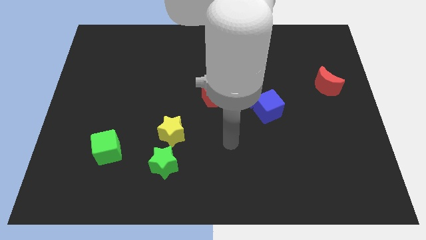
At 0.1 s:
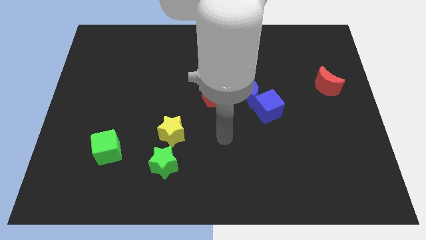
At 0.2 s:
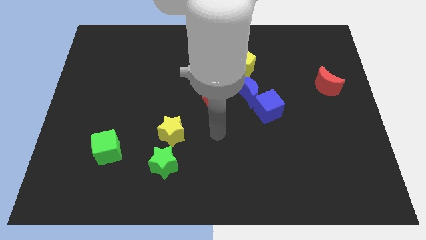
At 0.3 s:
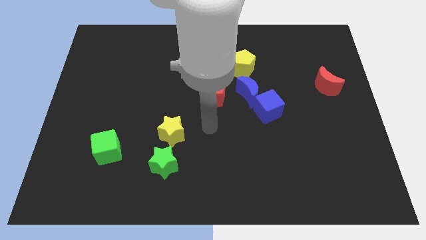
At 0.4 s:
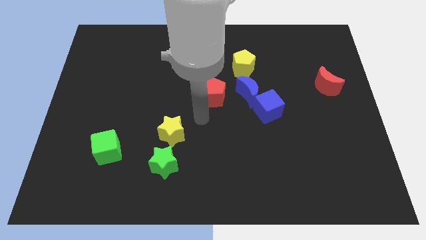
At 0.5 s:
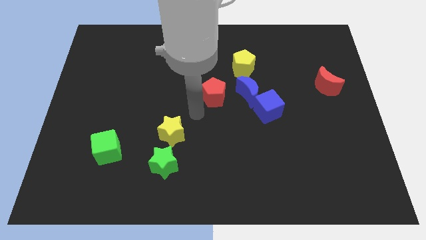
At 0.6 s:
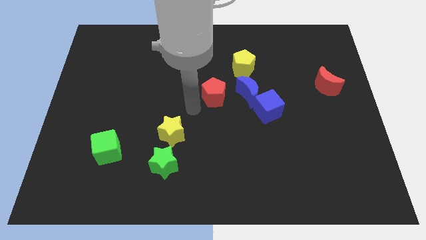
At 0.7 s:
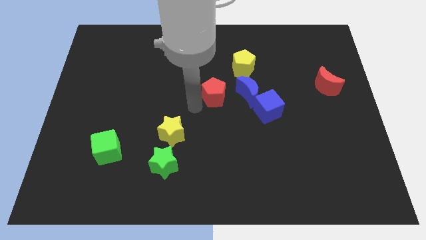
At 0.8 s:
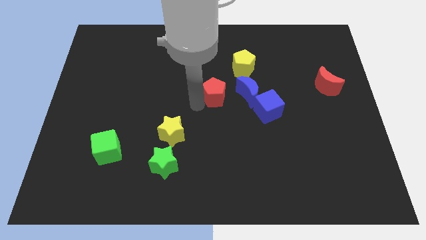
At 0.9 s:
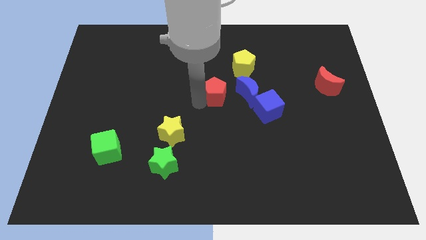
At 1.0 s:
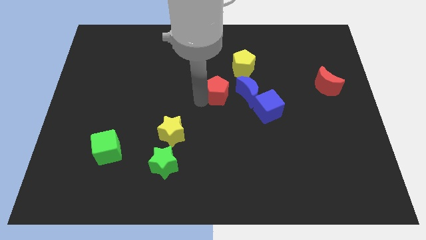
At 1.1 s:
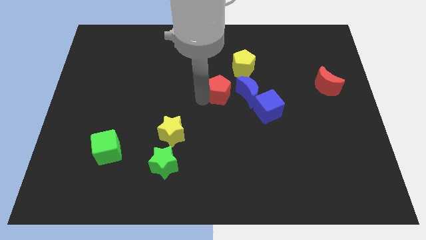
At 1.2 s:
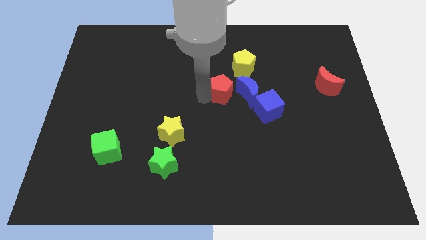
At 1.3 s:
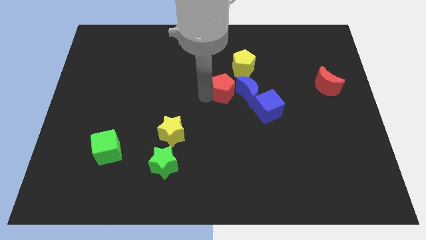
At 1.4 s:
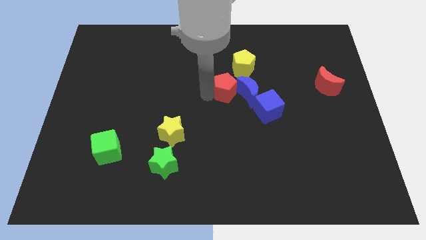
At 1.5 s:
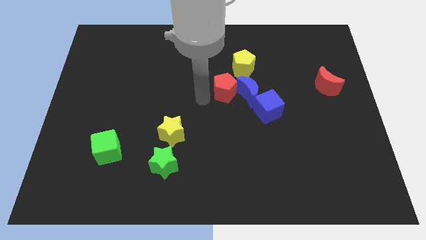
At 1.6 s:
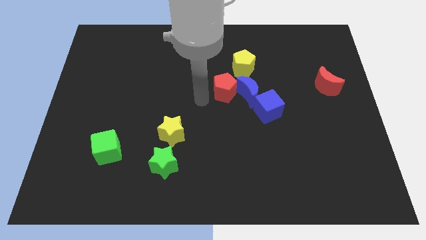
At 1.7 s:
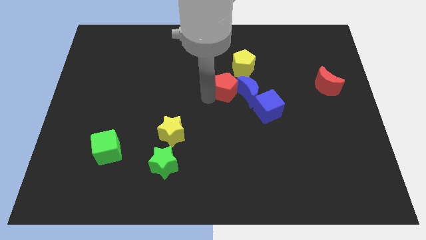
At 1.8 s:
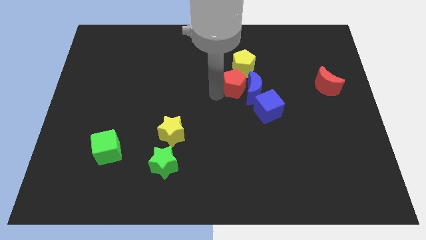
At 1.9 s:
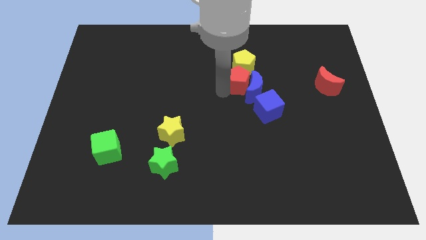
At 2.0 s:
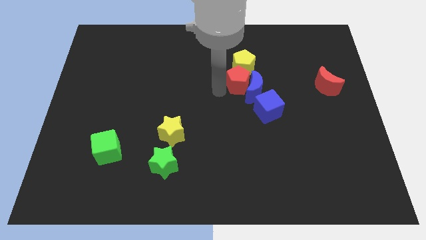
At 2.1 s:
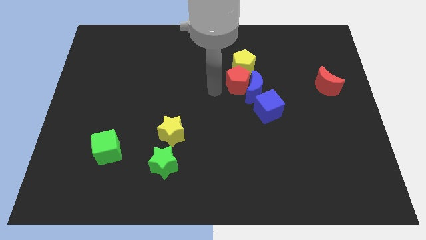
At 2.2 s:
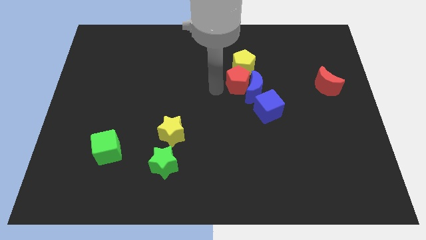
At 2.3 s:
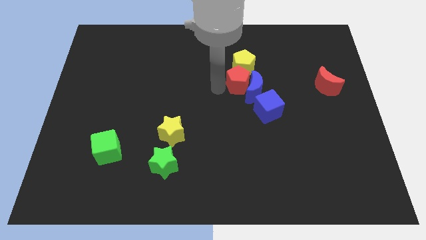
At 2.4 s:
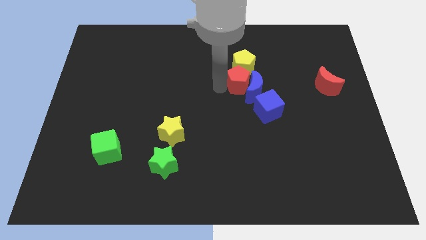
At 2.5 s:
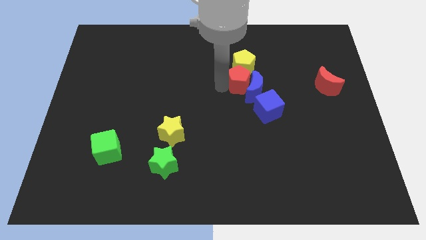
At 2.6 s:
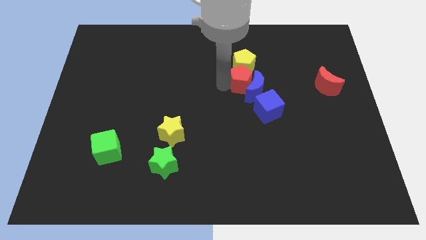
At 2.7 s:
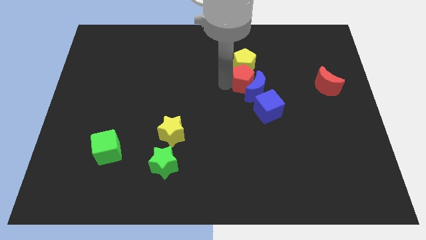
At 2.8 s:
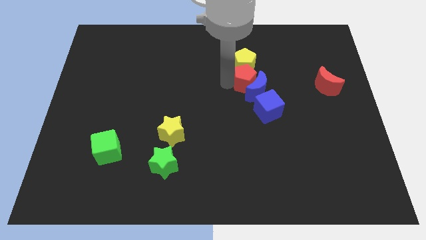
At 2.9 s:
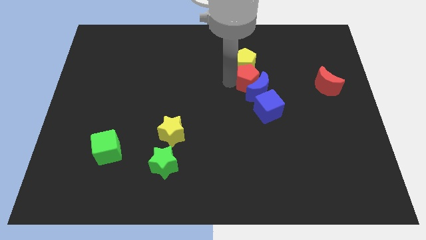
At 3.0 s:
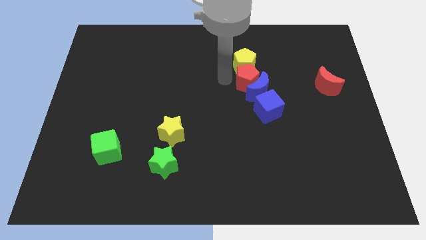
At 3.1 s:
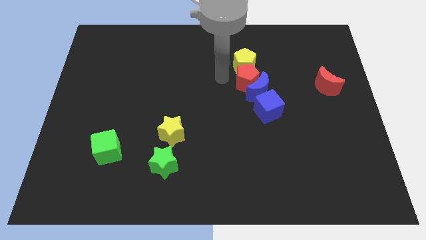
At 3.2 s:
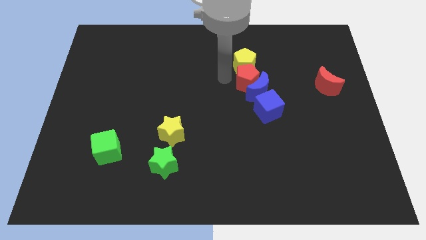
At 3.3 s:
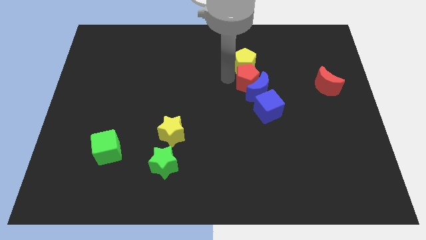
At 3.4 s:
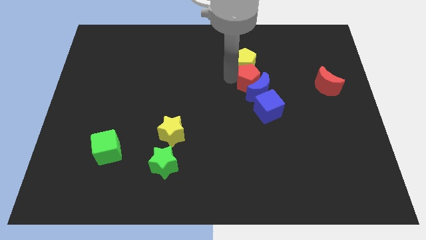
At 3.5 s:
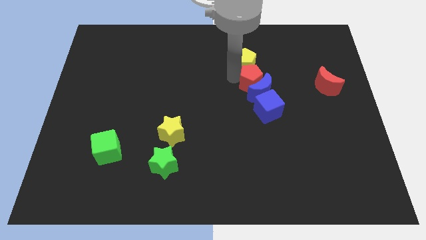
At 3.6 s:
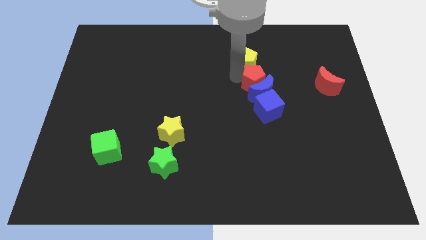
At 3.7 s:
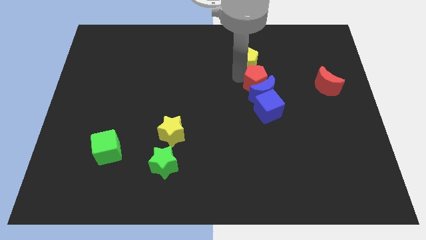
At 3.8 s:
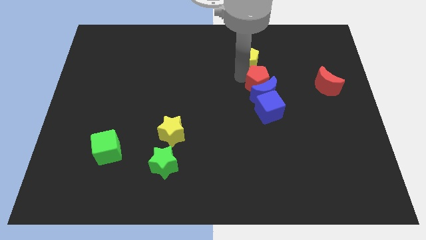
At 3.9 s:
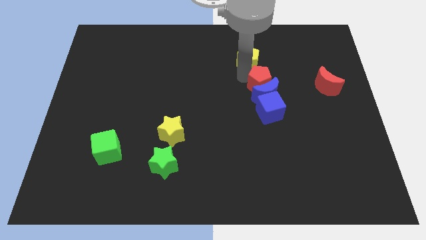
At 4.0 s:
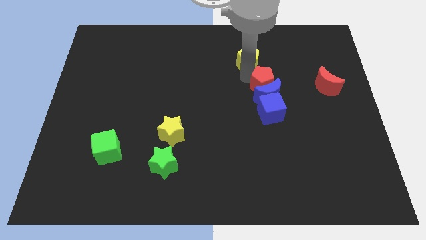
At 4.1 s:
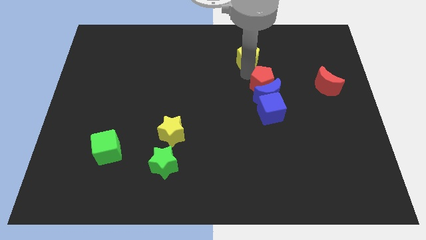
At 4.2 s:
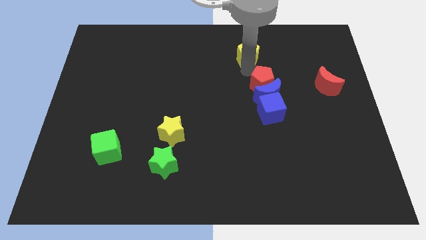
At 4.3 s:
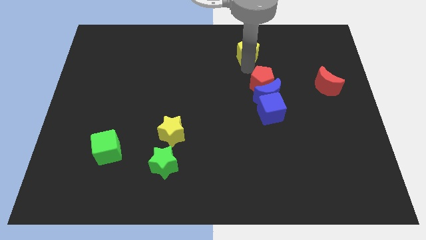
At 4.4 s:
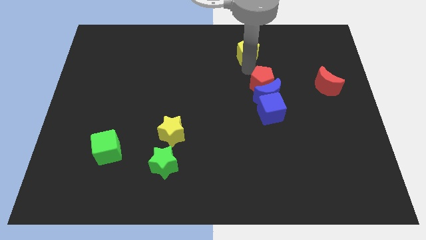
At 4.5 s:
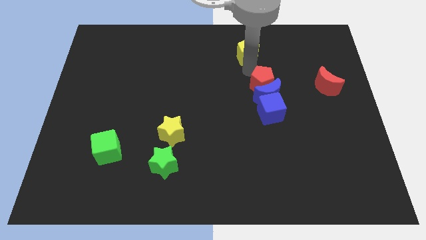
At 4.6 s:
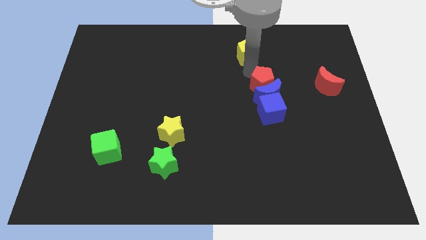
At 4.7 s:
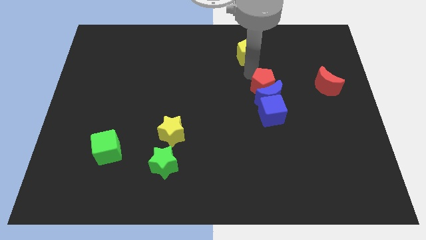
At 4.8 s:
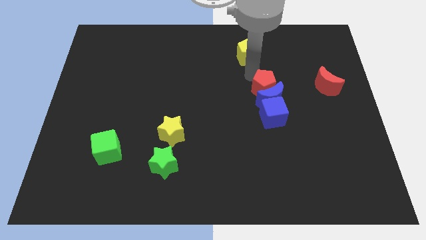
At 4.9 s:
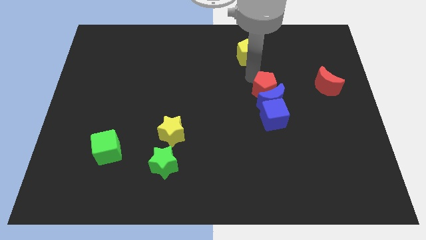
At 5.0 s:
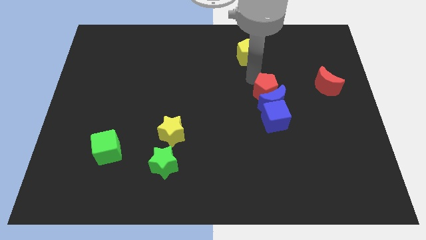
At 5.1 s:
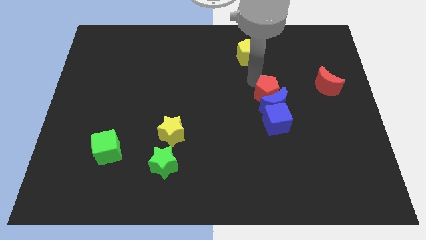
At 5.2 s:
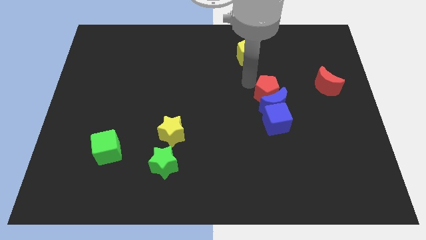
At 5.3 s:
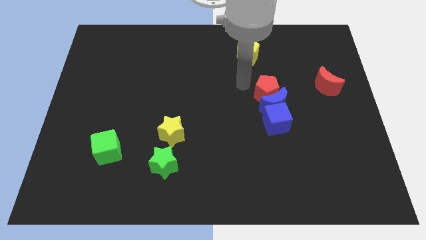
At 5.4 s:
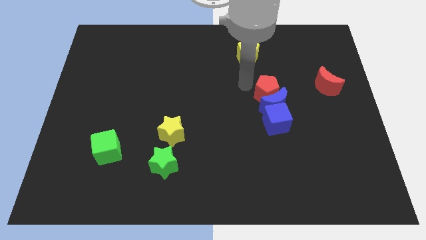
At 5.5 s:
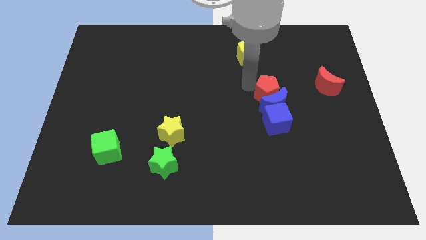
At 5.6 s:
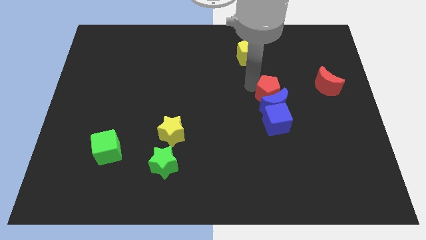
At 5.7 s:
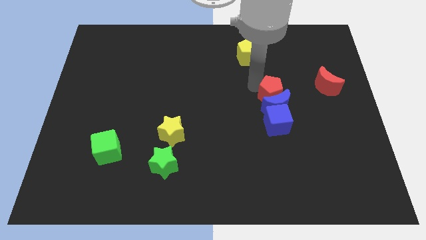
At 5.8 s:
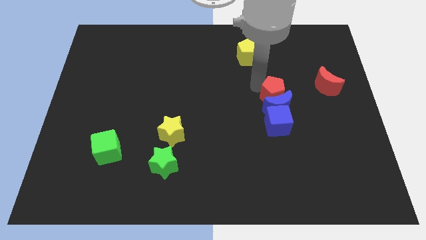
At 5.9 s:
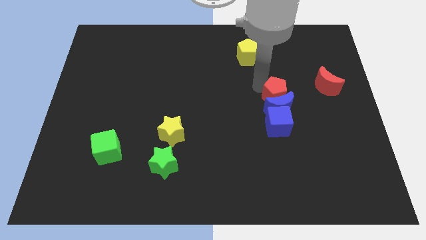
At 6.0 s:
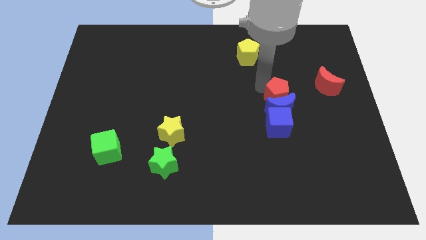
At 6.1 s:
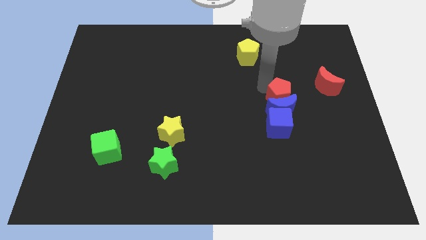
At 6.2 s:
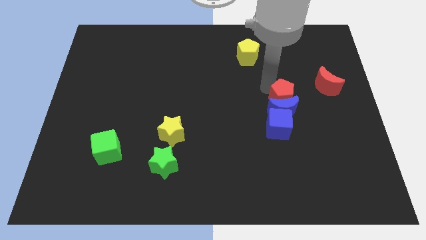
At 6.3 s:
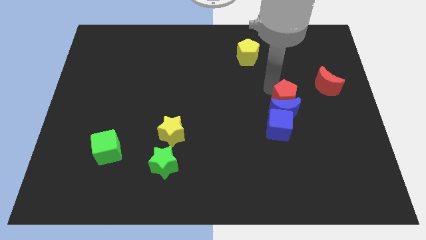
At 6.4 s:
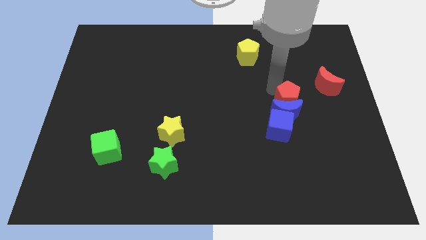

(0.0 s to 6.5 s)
slide the red pentagon to the bottom left side of the red moon

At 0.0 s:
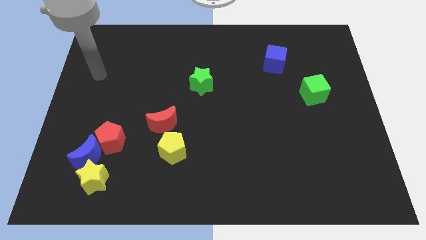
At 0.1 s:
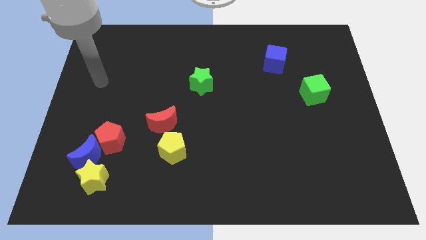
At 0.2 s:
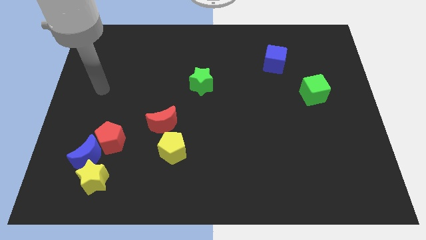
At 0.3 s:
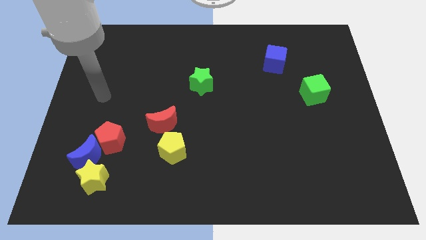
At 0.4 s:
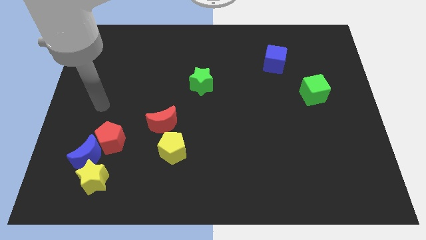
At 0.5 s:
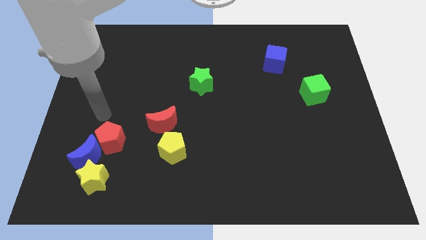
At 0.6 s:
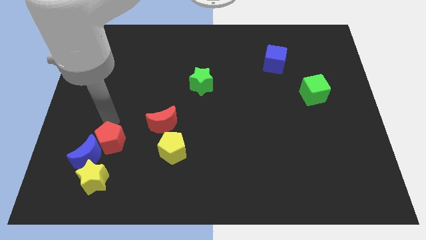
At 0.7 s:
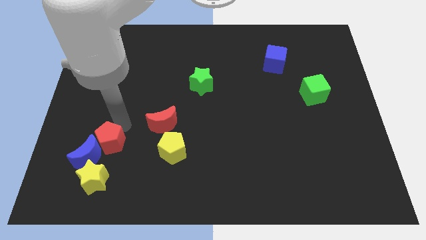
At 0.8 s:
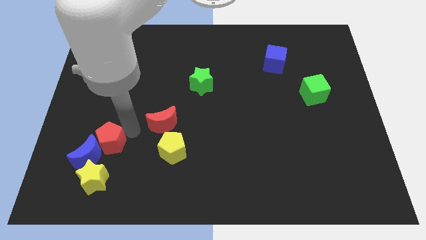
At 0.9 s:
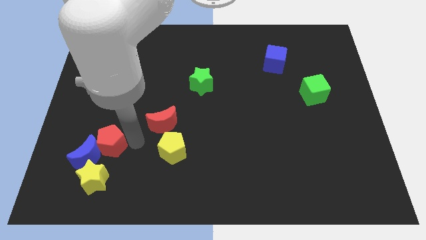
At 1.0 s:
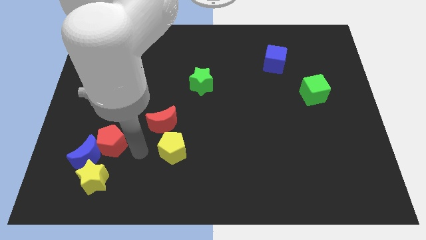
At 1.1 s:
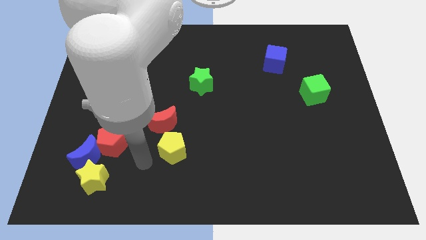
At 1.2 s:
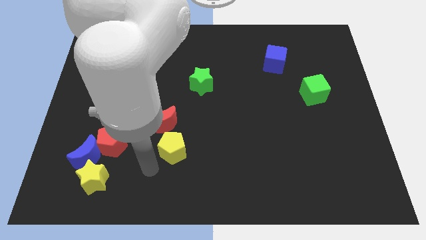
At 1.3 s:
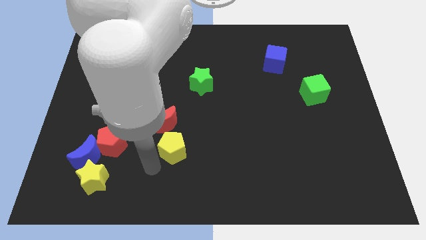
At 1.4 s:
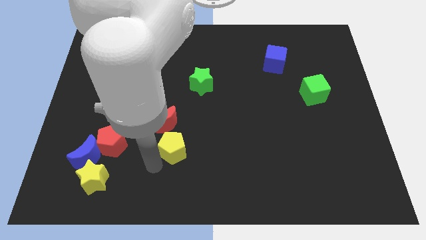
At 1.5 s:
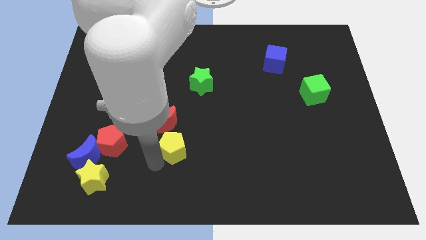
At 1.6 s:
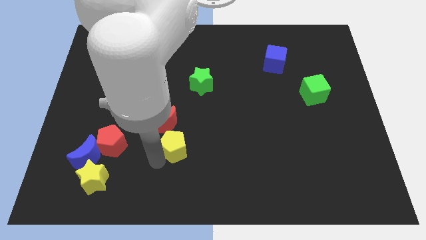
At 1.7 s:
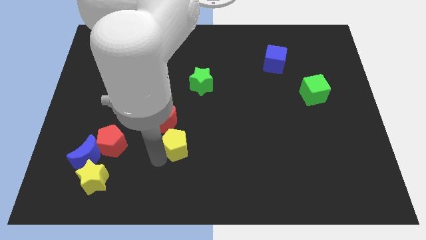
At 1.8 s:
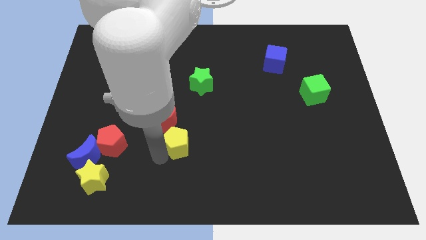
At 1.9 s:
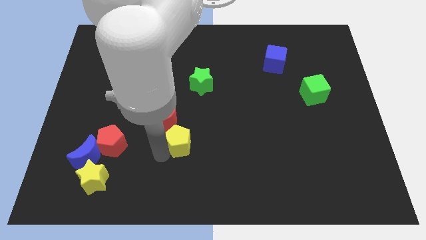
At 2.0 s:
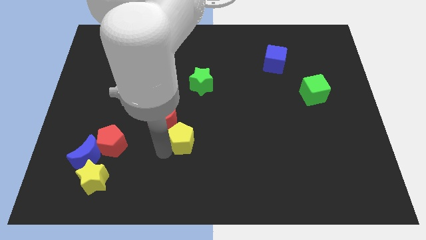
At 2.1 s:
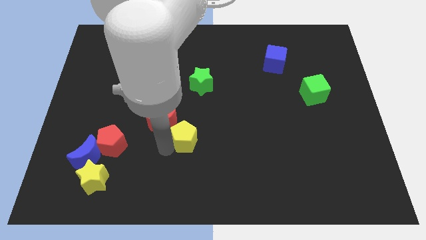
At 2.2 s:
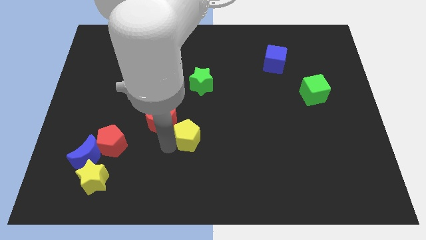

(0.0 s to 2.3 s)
move the yellow pentagon to the bottom side of the green star
